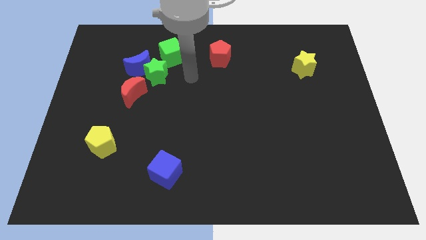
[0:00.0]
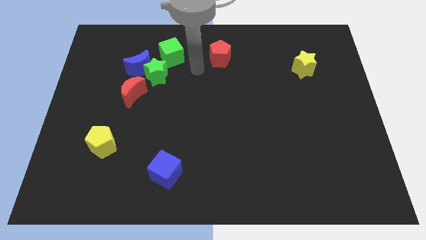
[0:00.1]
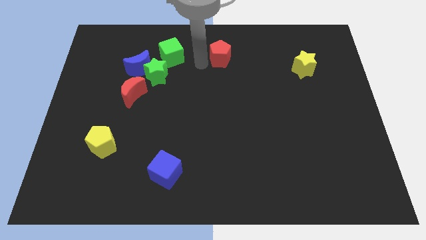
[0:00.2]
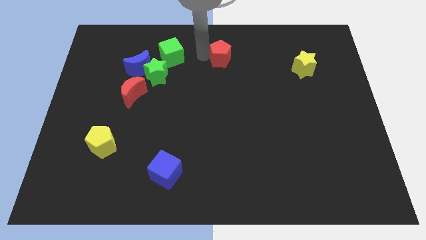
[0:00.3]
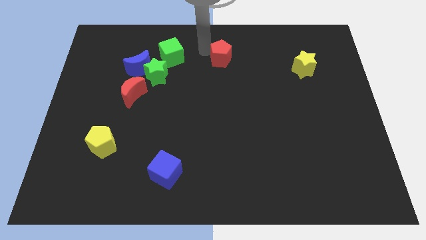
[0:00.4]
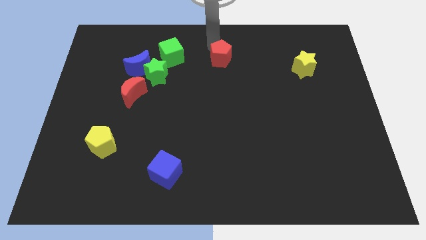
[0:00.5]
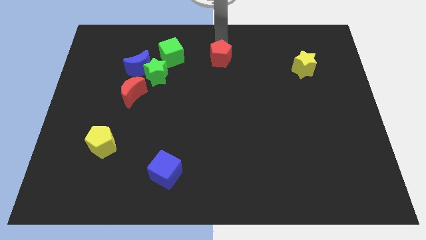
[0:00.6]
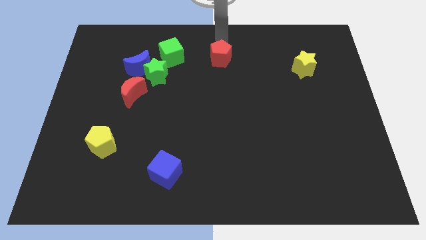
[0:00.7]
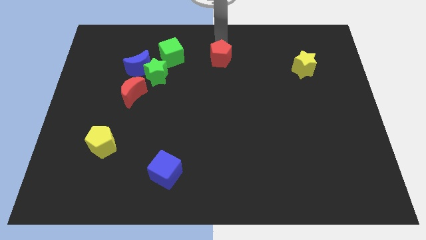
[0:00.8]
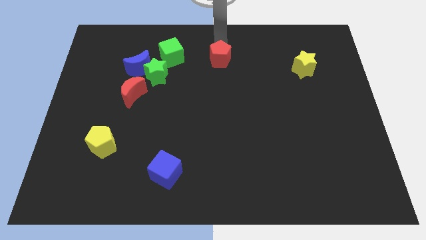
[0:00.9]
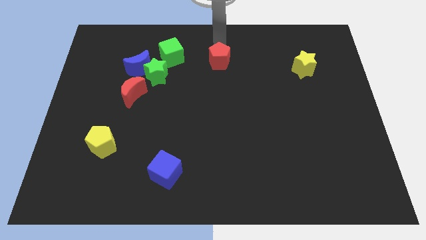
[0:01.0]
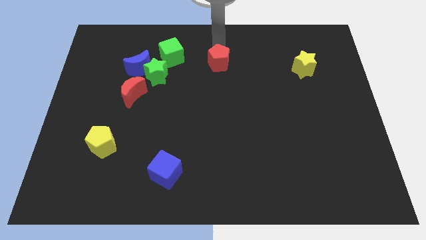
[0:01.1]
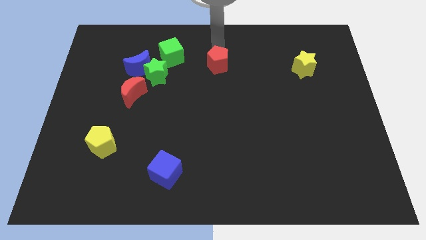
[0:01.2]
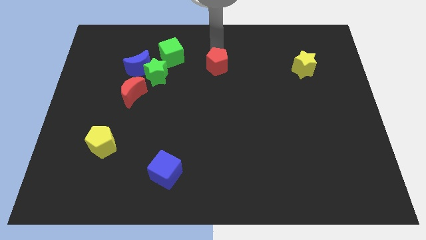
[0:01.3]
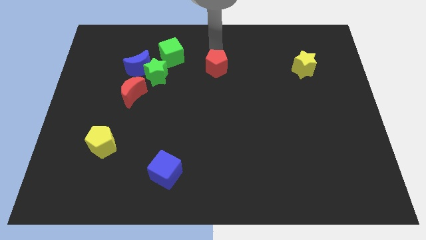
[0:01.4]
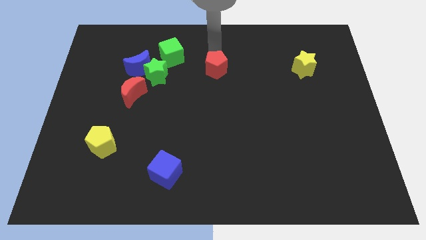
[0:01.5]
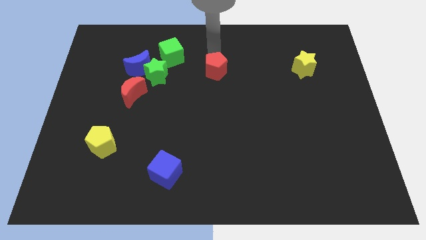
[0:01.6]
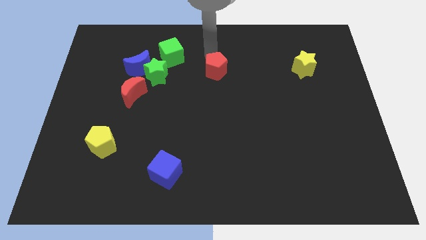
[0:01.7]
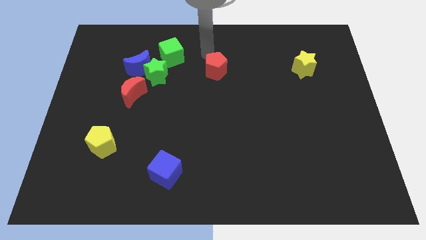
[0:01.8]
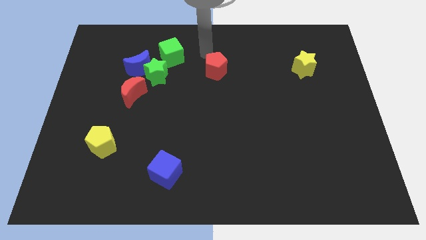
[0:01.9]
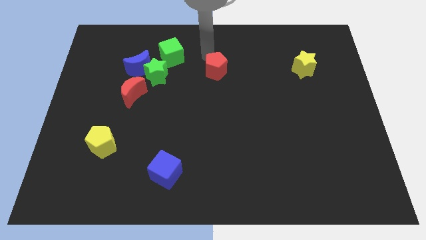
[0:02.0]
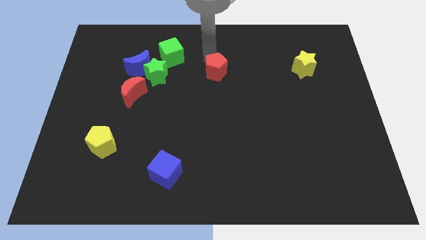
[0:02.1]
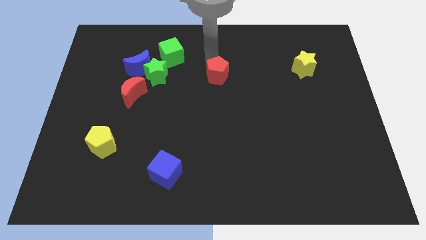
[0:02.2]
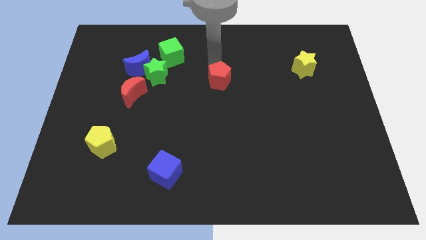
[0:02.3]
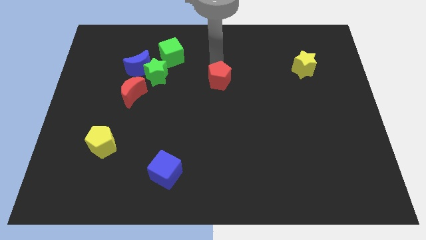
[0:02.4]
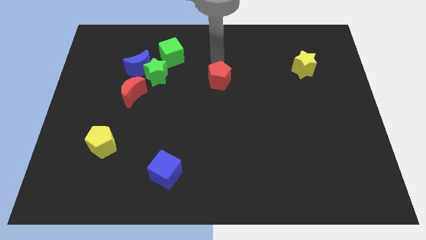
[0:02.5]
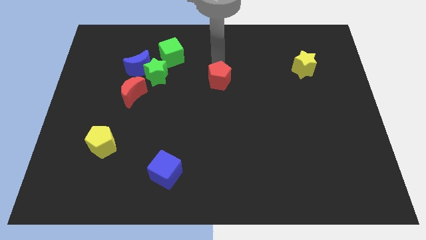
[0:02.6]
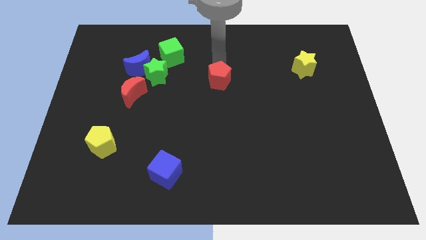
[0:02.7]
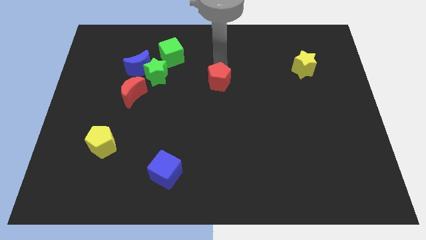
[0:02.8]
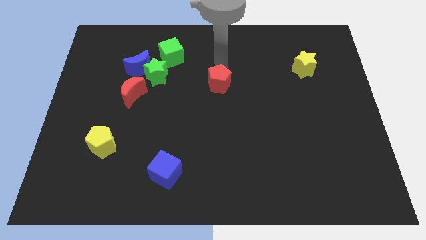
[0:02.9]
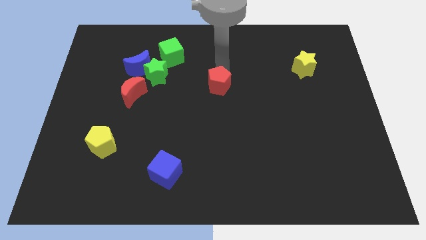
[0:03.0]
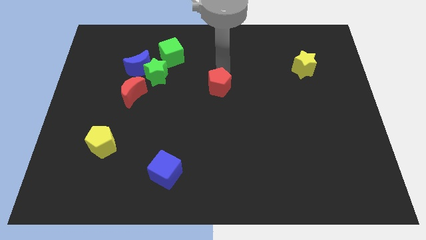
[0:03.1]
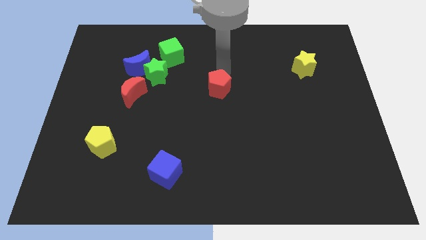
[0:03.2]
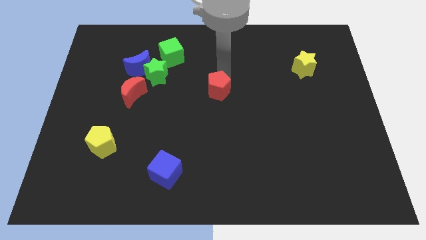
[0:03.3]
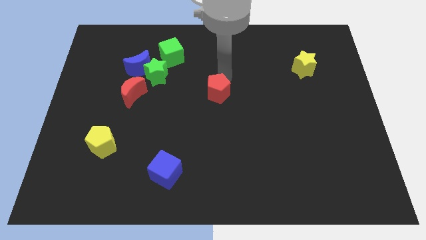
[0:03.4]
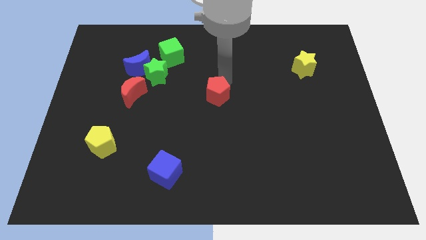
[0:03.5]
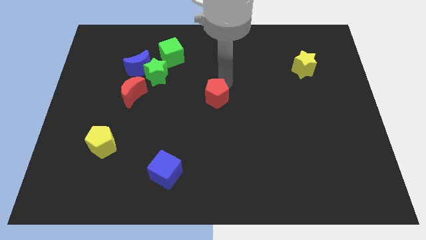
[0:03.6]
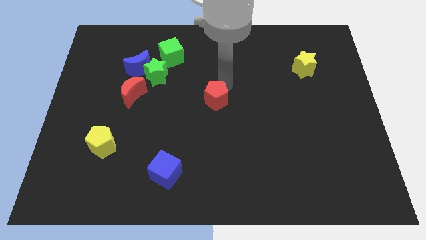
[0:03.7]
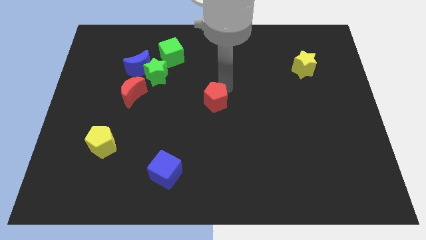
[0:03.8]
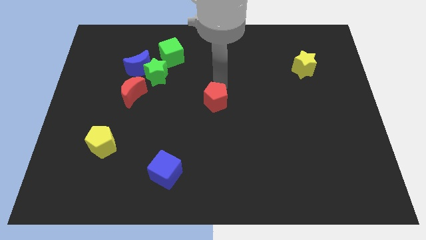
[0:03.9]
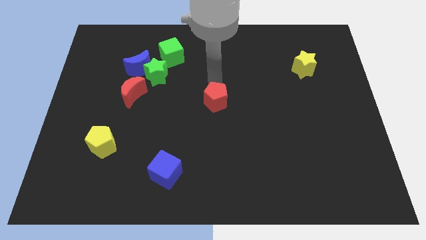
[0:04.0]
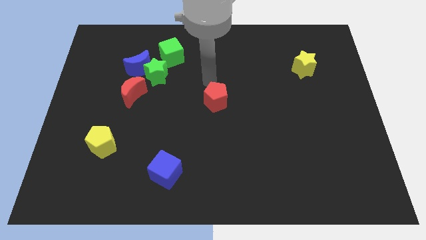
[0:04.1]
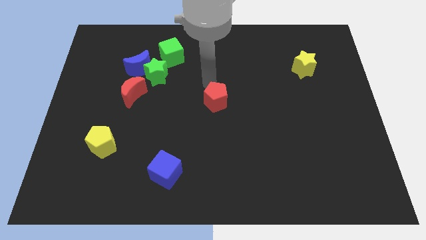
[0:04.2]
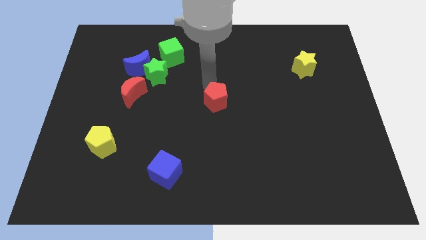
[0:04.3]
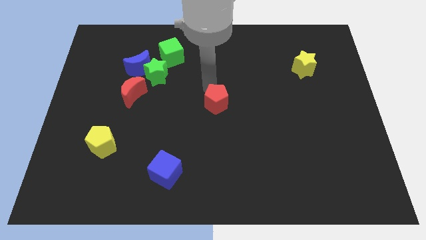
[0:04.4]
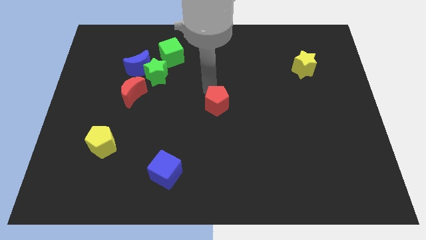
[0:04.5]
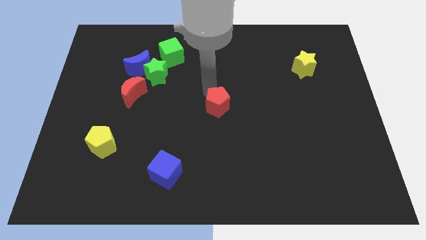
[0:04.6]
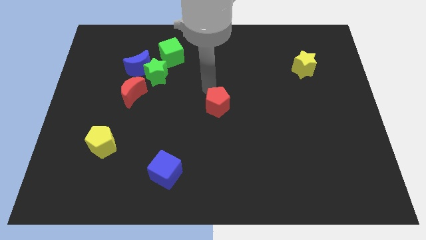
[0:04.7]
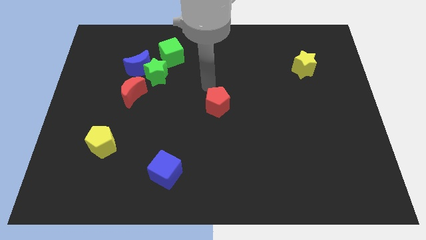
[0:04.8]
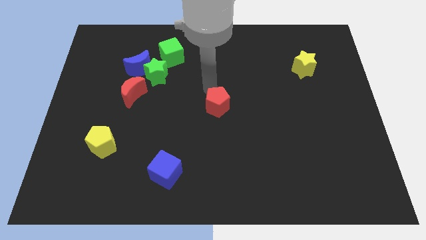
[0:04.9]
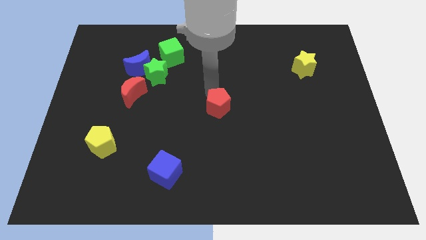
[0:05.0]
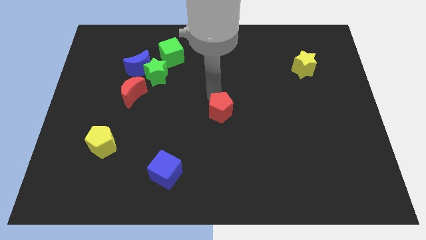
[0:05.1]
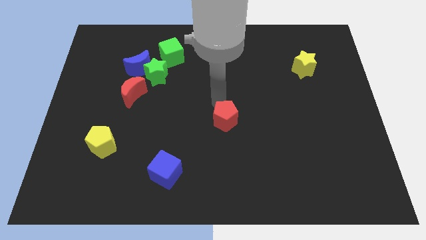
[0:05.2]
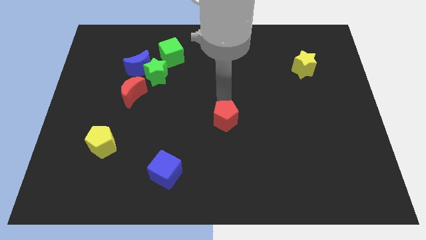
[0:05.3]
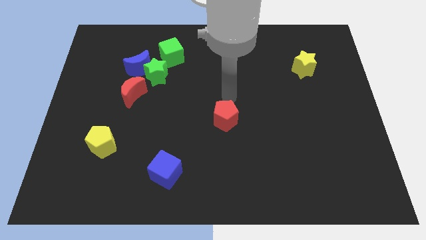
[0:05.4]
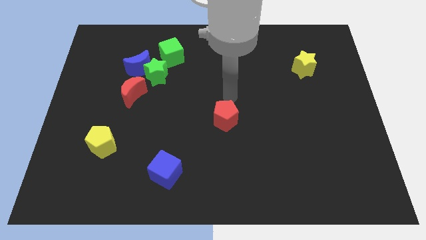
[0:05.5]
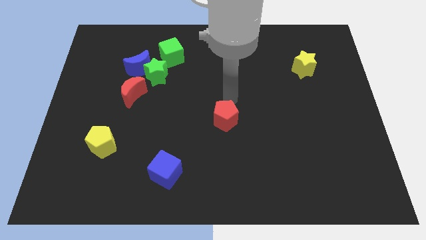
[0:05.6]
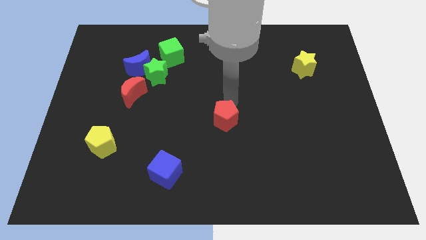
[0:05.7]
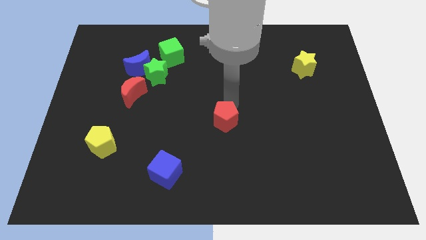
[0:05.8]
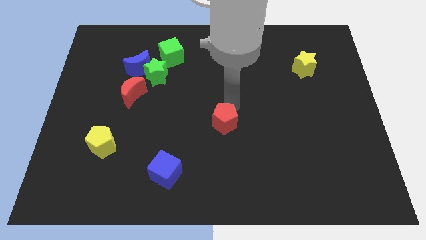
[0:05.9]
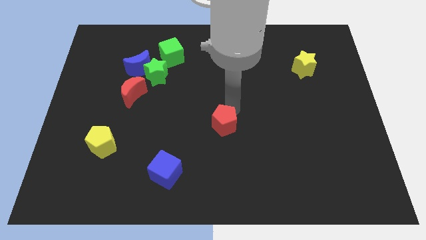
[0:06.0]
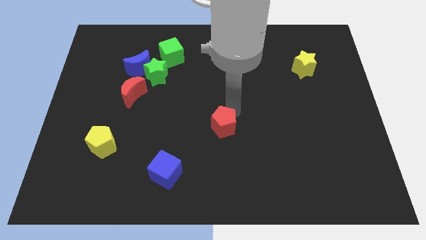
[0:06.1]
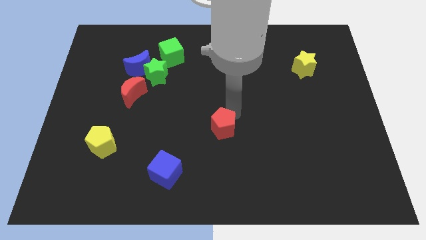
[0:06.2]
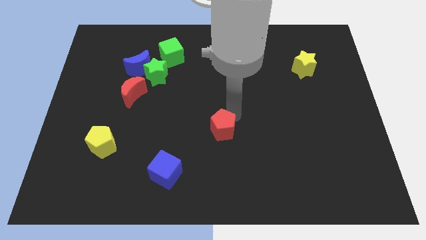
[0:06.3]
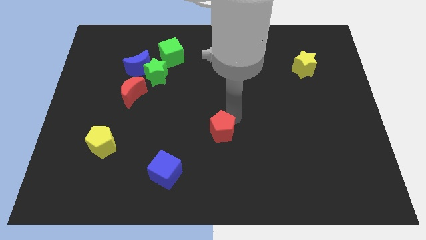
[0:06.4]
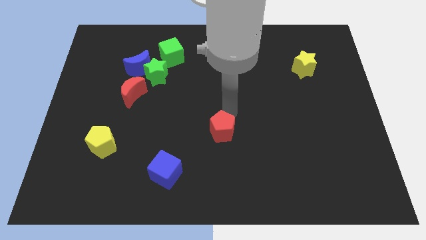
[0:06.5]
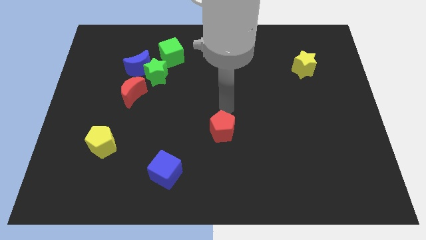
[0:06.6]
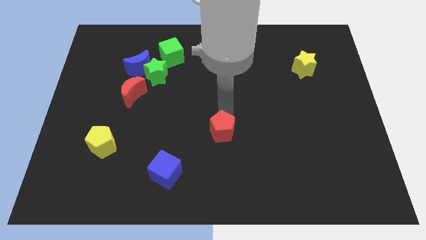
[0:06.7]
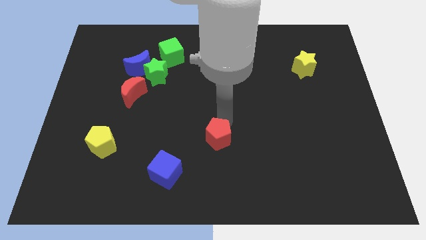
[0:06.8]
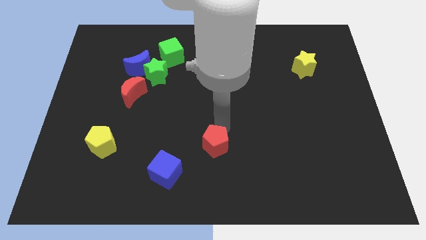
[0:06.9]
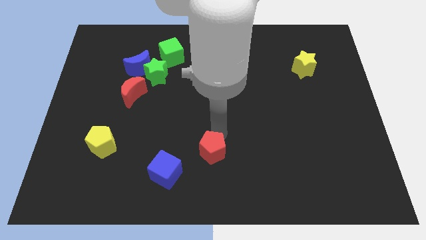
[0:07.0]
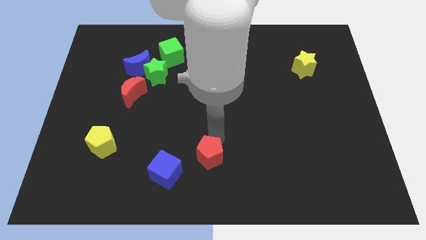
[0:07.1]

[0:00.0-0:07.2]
push the red pentagon to the bottom
